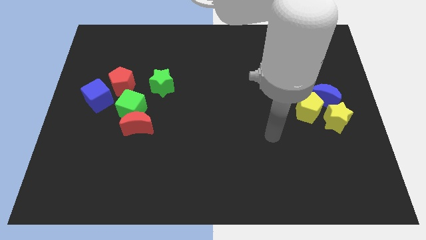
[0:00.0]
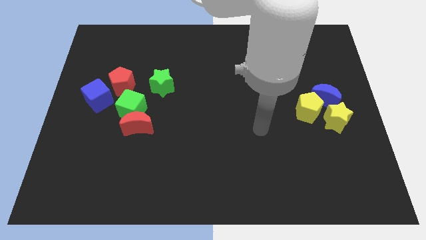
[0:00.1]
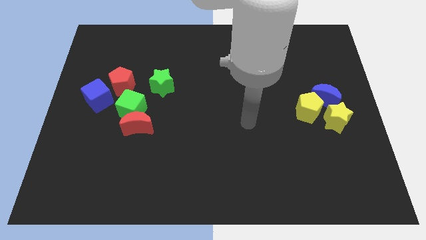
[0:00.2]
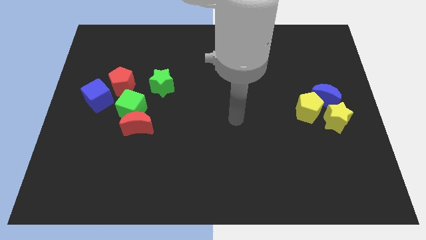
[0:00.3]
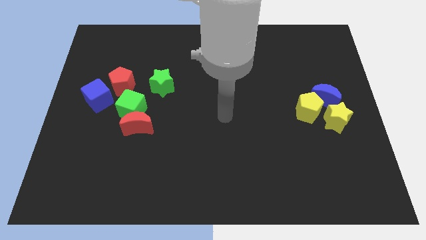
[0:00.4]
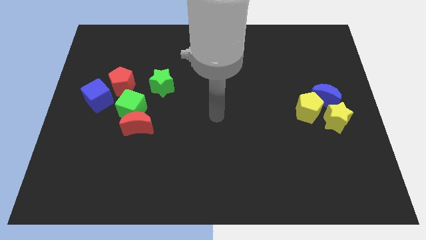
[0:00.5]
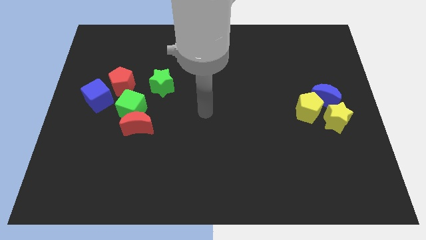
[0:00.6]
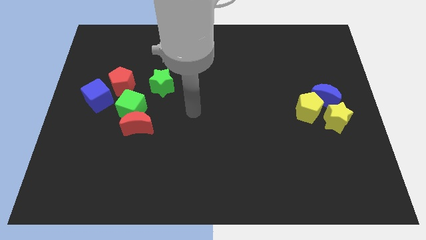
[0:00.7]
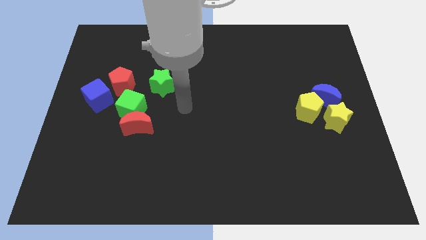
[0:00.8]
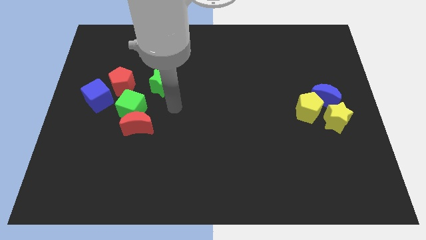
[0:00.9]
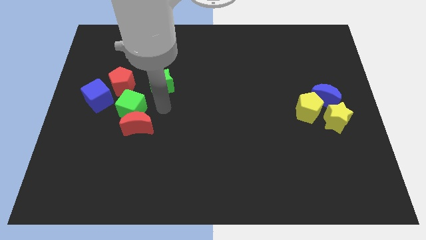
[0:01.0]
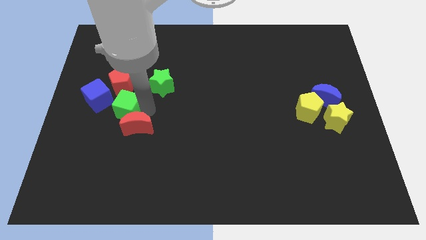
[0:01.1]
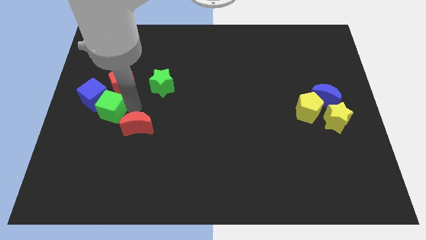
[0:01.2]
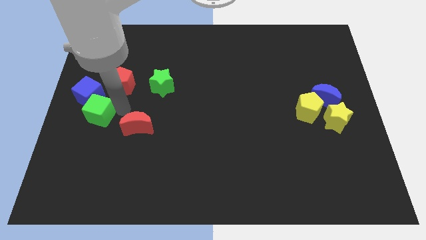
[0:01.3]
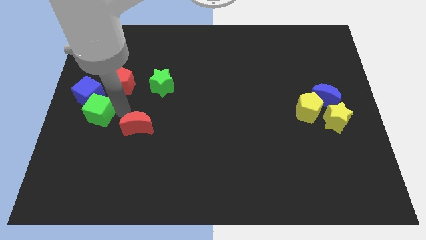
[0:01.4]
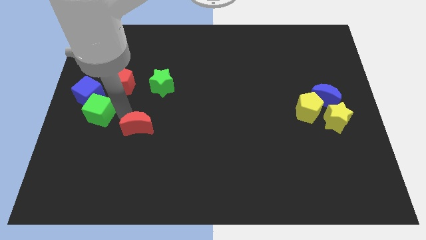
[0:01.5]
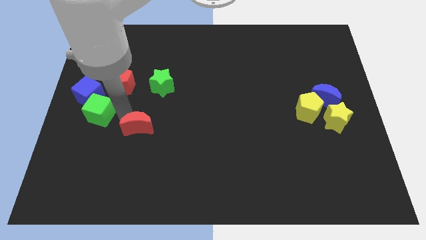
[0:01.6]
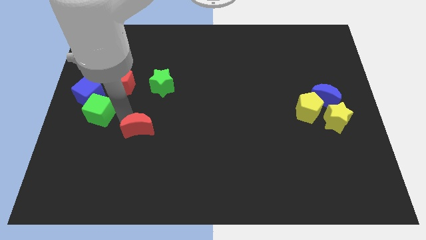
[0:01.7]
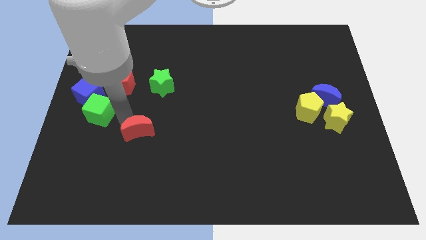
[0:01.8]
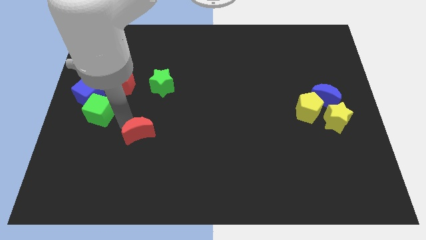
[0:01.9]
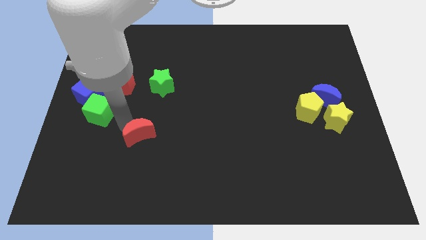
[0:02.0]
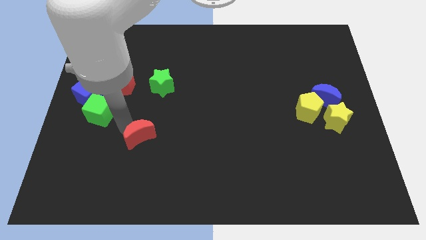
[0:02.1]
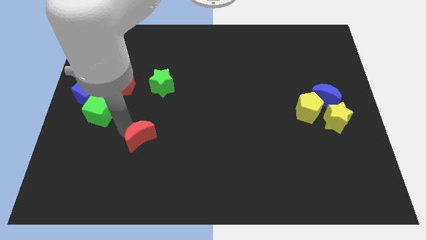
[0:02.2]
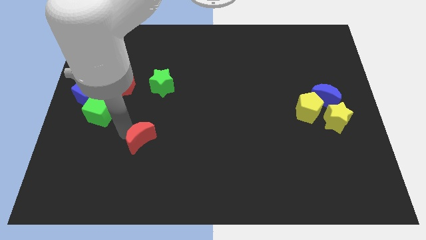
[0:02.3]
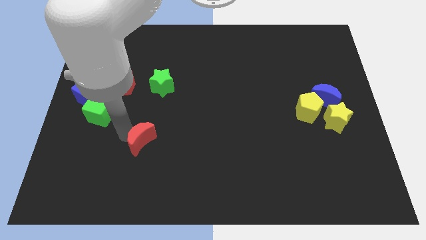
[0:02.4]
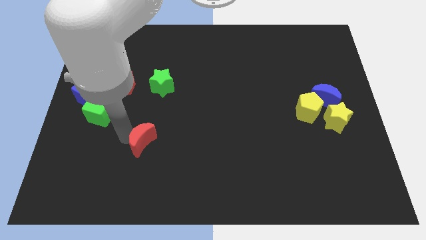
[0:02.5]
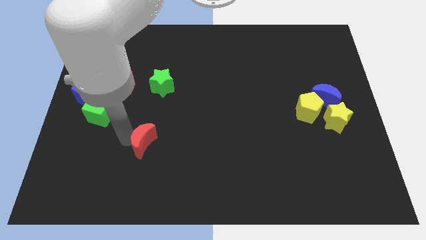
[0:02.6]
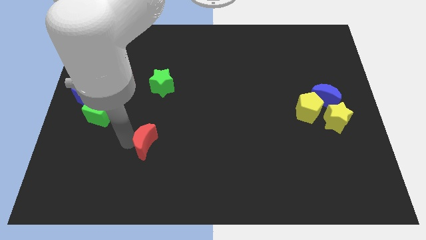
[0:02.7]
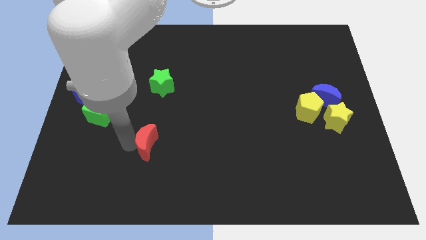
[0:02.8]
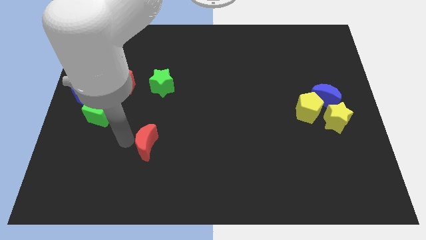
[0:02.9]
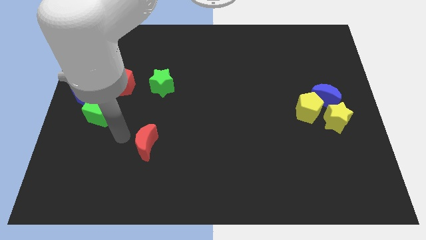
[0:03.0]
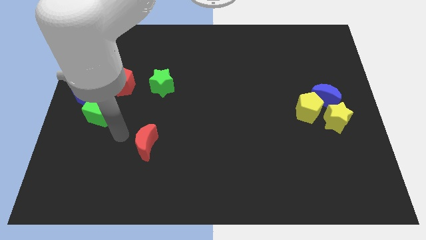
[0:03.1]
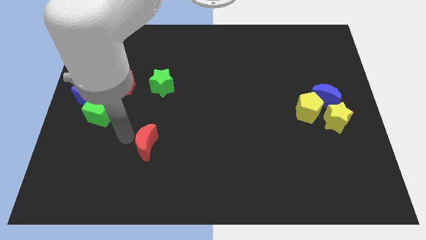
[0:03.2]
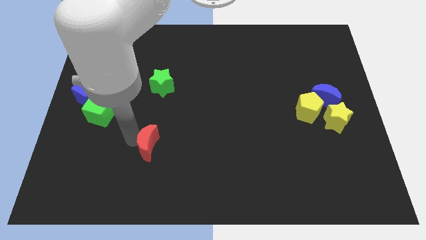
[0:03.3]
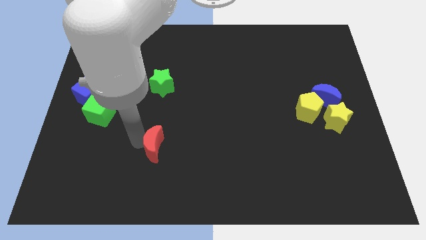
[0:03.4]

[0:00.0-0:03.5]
slightly slide the red moon diagonally downwards and to the right

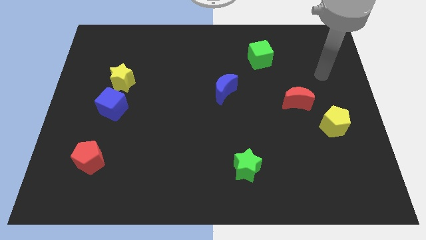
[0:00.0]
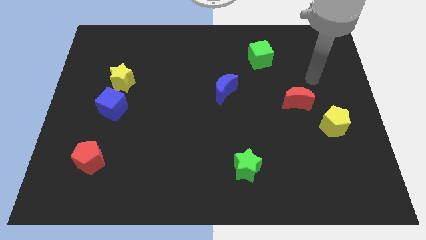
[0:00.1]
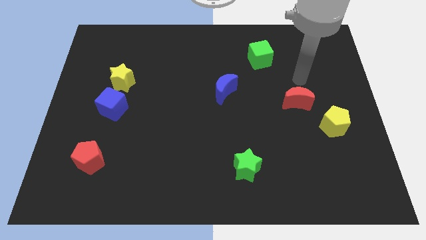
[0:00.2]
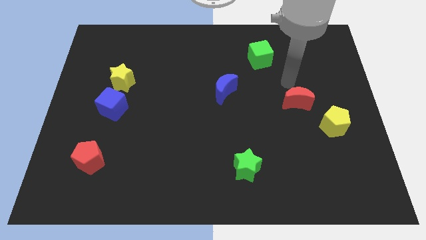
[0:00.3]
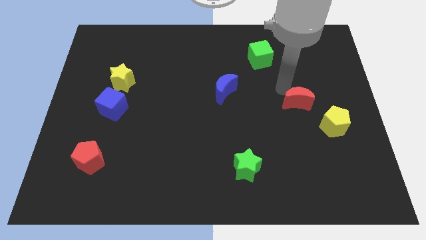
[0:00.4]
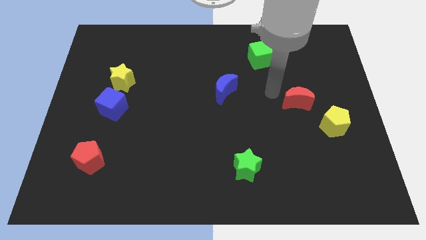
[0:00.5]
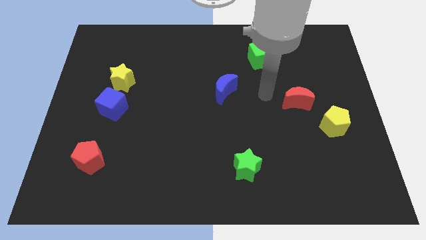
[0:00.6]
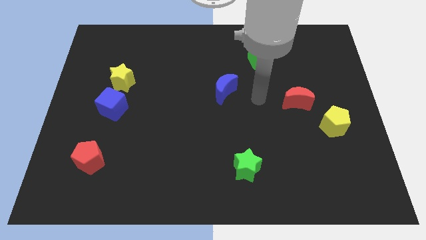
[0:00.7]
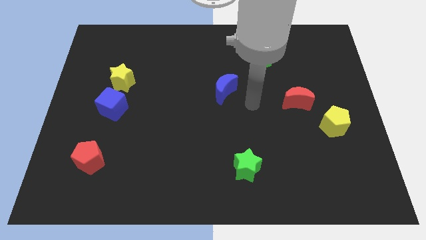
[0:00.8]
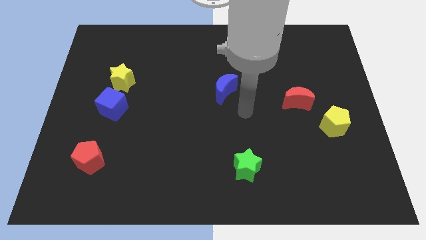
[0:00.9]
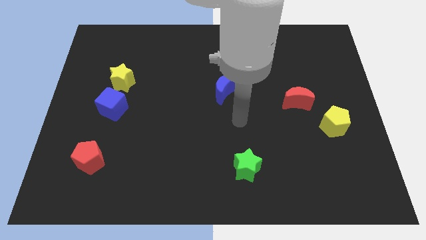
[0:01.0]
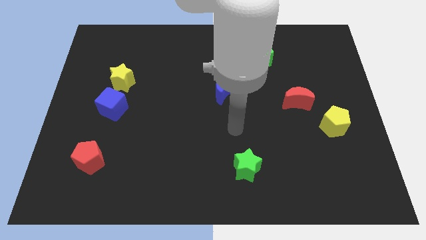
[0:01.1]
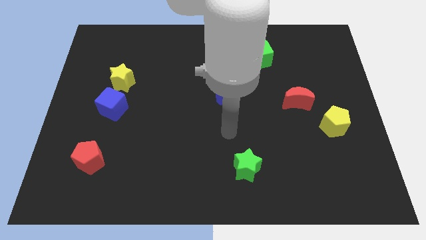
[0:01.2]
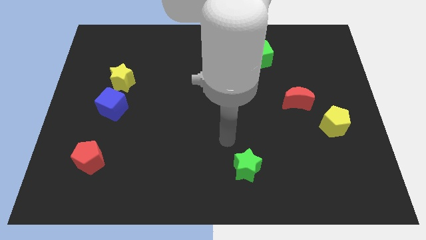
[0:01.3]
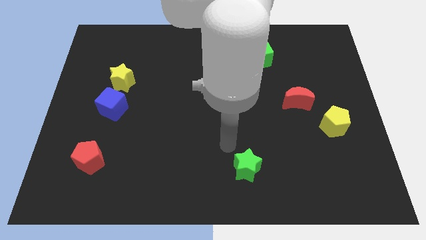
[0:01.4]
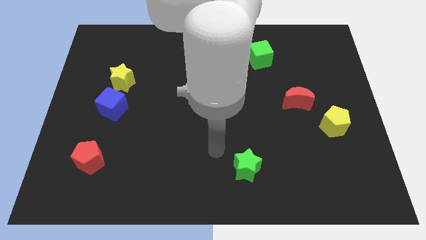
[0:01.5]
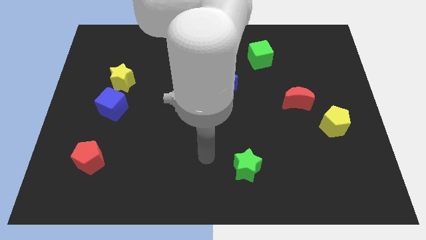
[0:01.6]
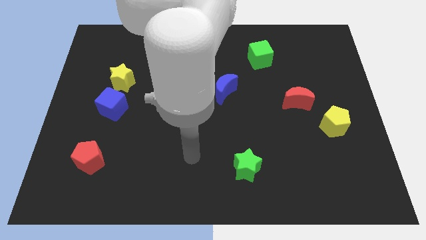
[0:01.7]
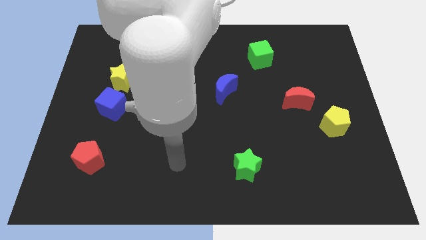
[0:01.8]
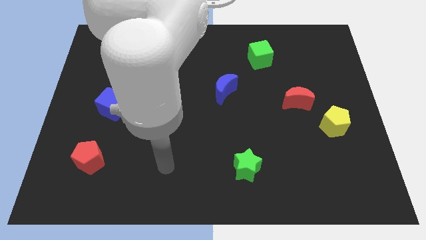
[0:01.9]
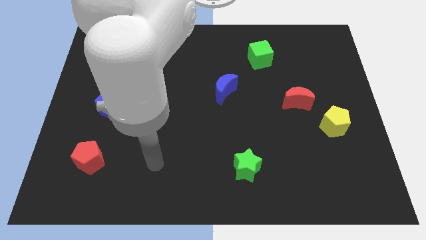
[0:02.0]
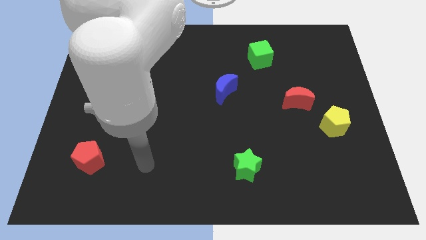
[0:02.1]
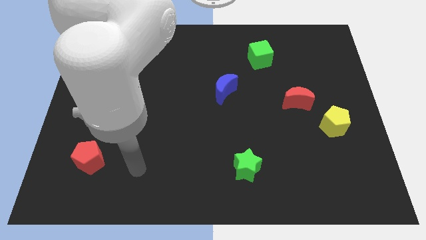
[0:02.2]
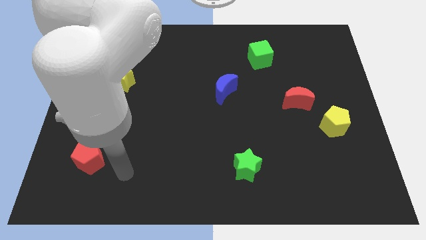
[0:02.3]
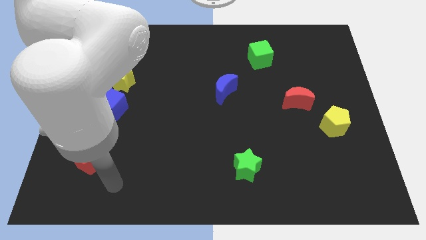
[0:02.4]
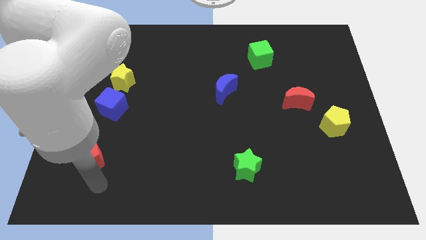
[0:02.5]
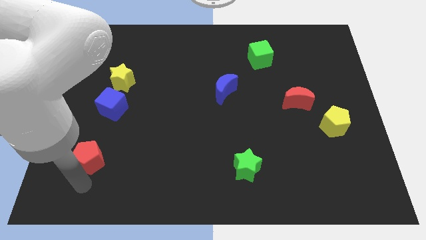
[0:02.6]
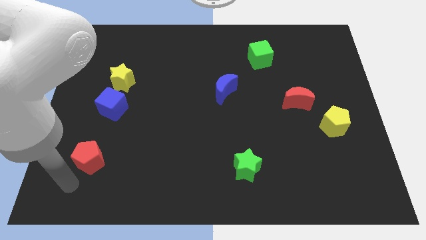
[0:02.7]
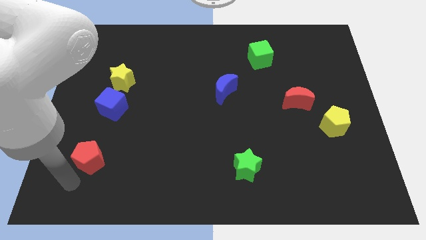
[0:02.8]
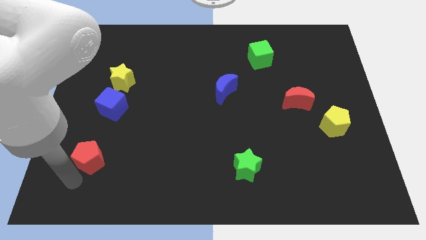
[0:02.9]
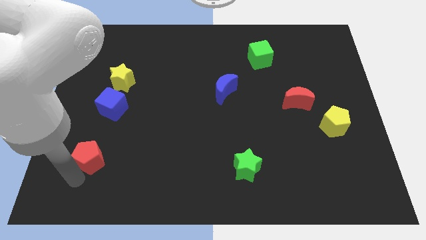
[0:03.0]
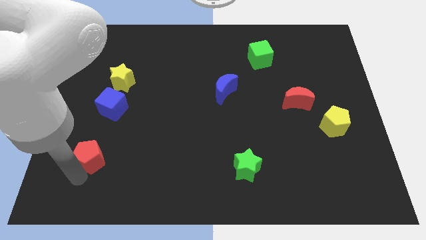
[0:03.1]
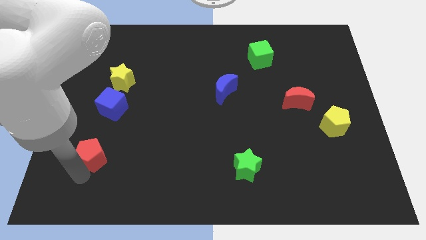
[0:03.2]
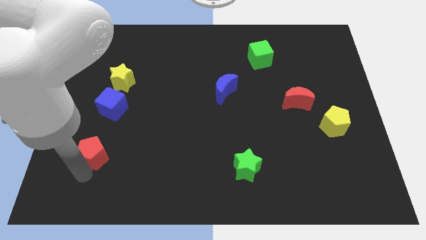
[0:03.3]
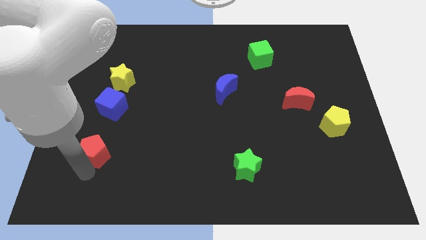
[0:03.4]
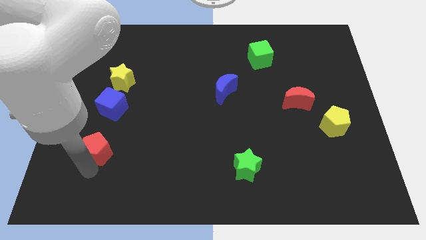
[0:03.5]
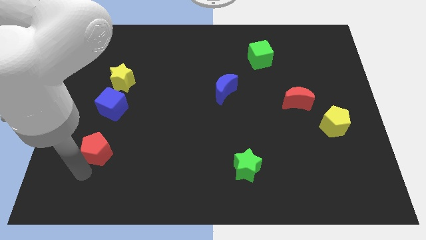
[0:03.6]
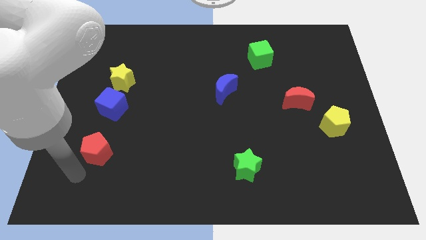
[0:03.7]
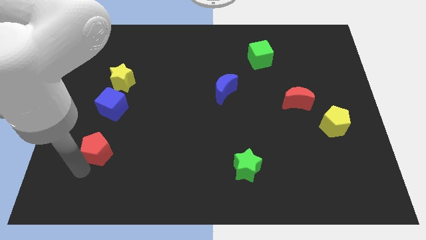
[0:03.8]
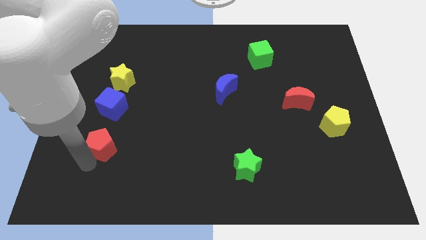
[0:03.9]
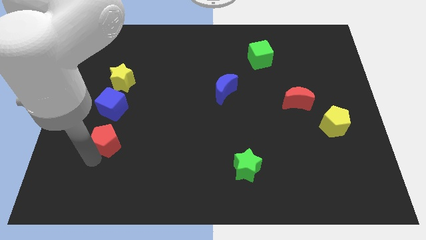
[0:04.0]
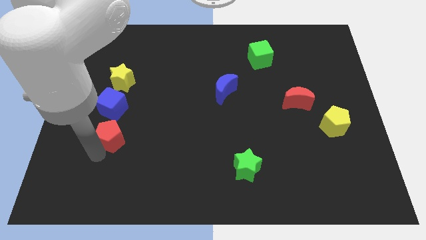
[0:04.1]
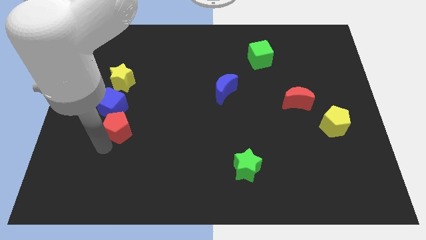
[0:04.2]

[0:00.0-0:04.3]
move the red pentagon slightly diagonally up and right
